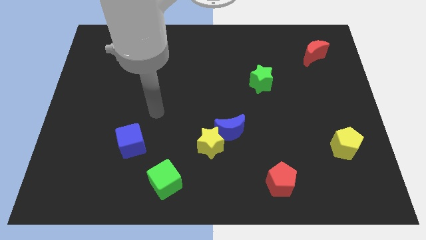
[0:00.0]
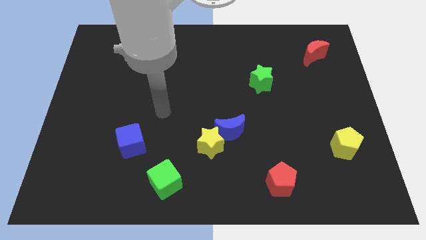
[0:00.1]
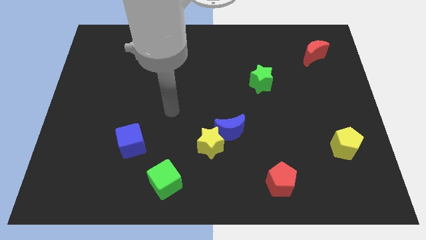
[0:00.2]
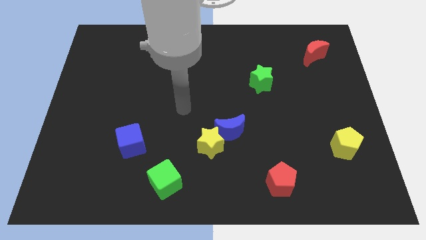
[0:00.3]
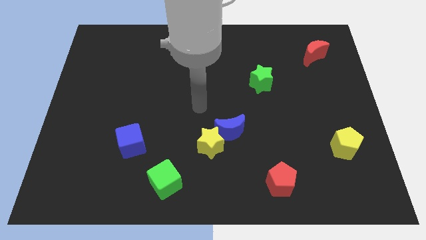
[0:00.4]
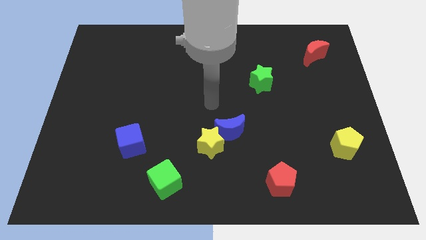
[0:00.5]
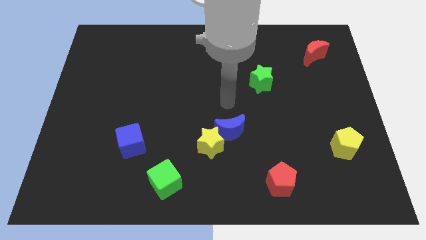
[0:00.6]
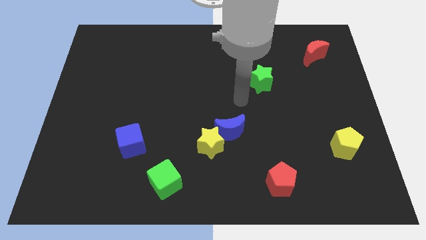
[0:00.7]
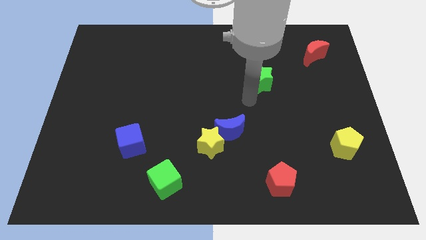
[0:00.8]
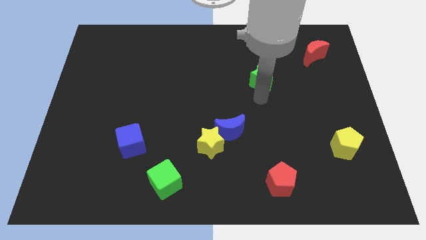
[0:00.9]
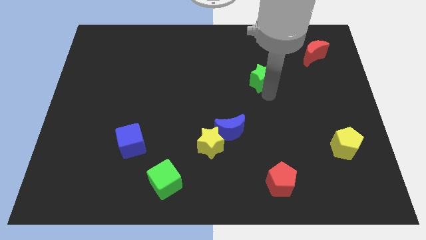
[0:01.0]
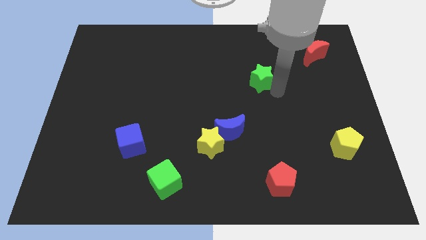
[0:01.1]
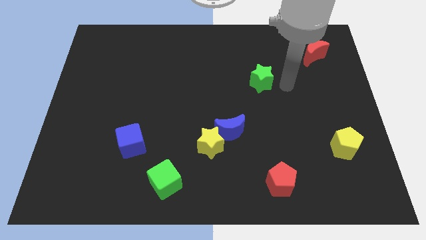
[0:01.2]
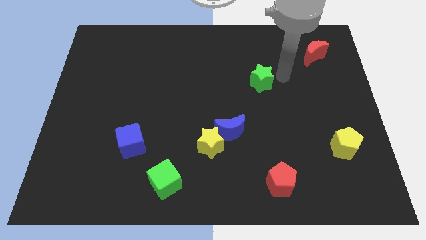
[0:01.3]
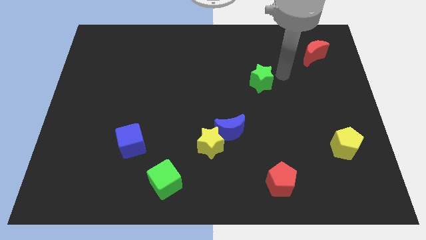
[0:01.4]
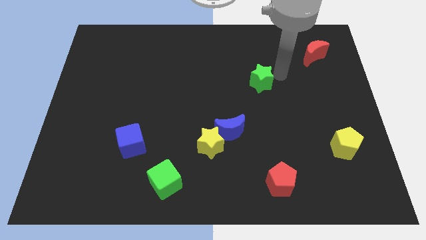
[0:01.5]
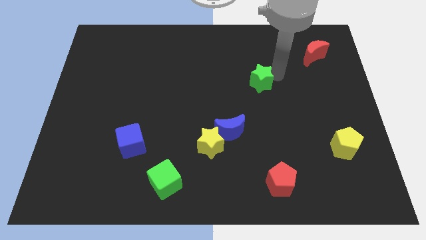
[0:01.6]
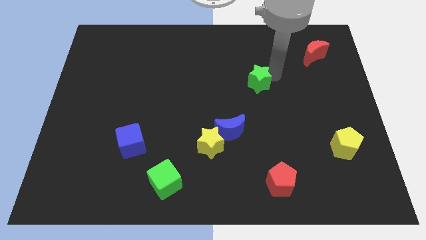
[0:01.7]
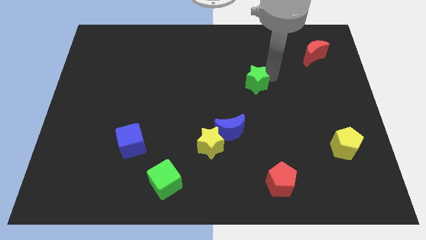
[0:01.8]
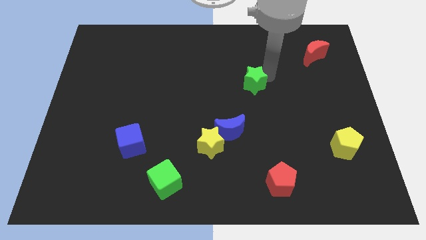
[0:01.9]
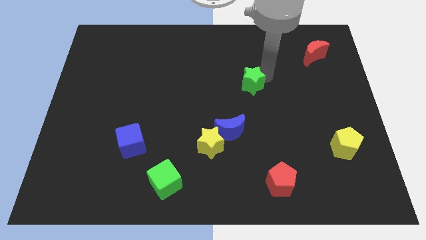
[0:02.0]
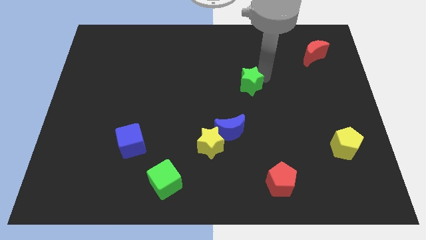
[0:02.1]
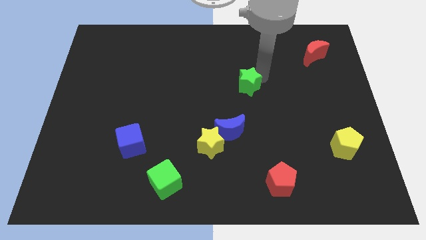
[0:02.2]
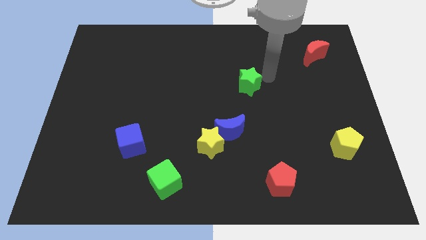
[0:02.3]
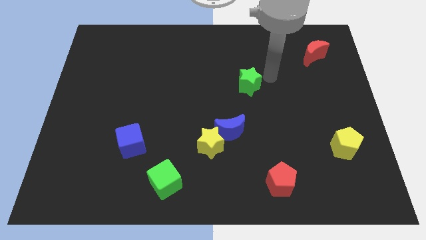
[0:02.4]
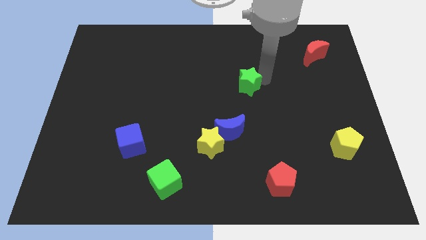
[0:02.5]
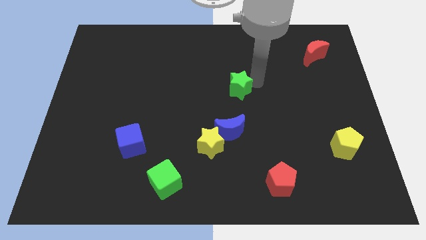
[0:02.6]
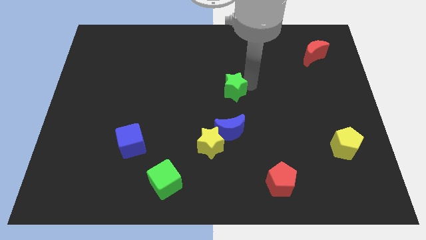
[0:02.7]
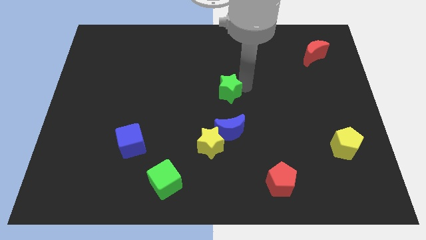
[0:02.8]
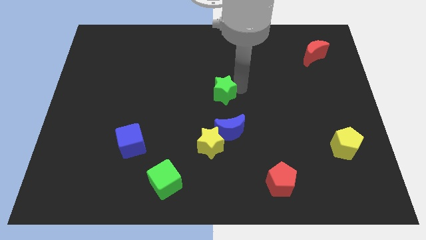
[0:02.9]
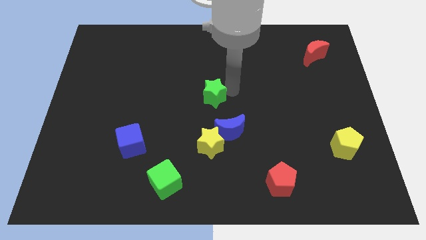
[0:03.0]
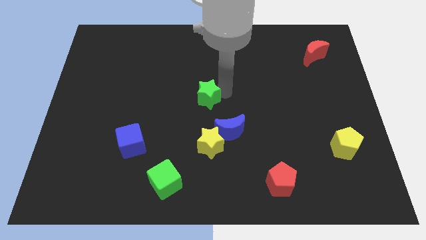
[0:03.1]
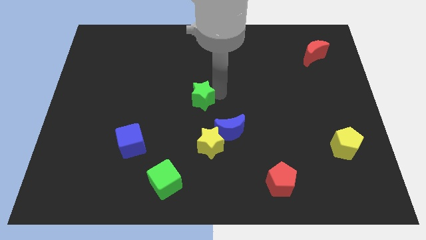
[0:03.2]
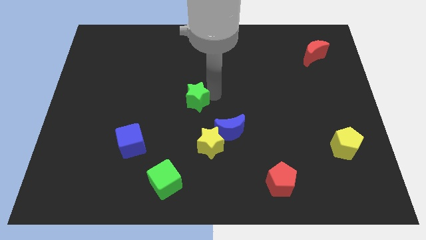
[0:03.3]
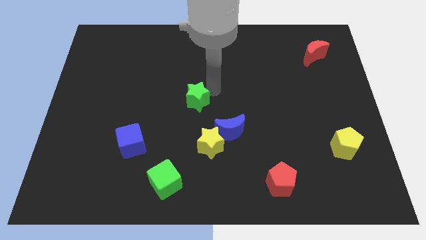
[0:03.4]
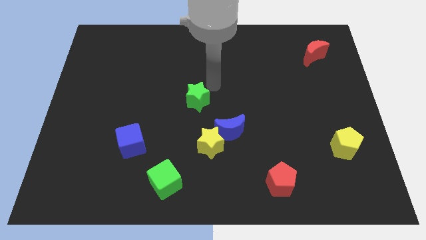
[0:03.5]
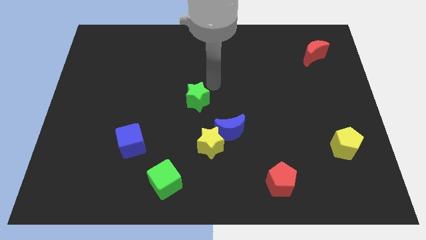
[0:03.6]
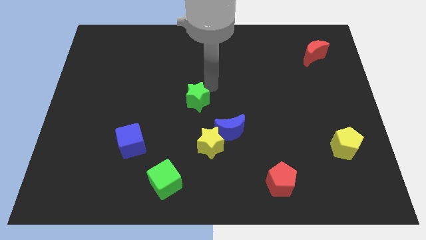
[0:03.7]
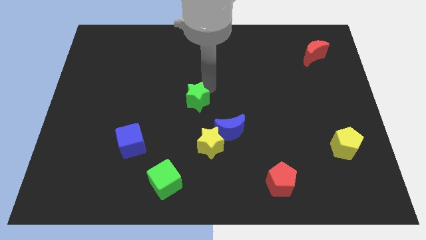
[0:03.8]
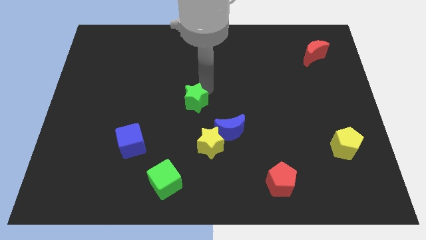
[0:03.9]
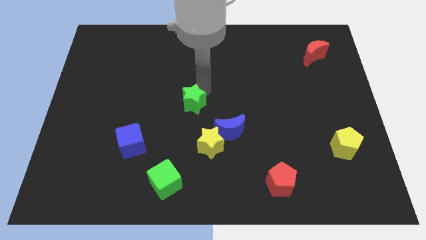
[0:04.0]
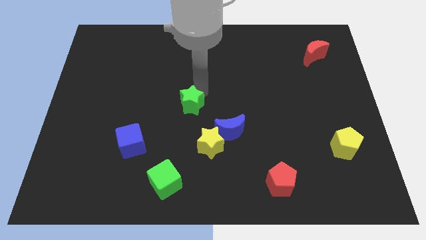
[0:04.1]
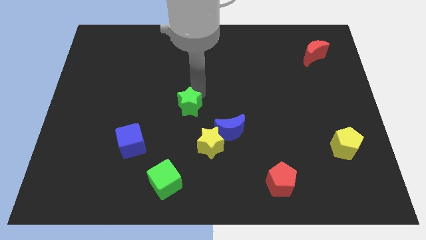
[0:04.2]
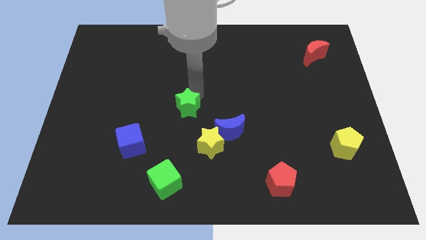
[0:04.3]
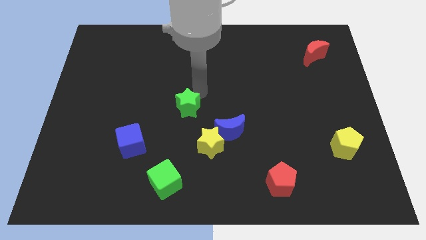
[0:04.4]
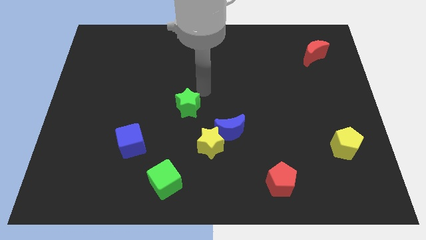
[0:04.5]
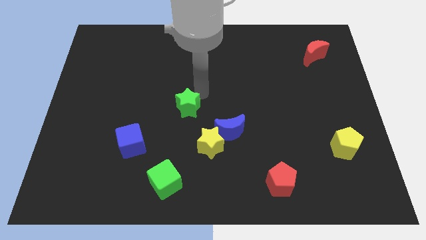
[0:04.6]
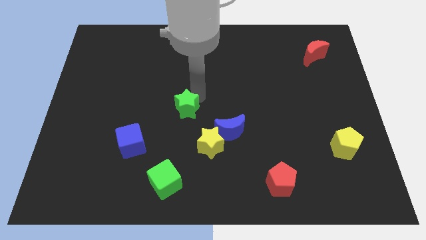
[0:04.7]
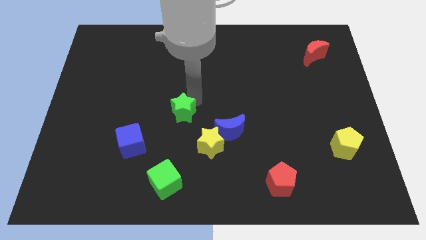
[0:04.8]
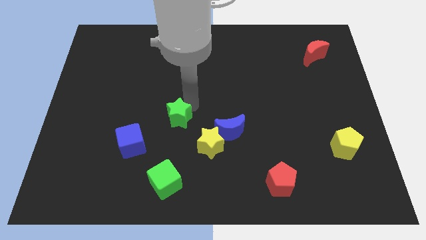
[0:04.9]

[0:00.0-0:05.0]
slide the green star to the top right of the blue cube

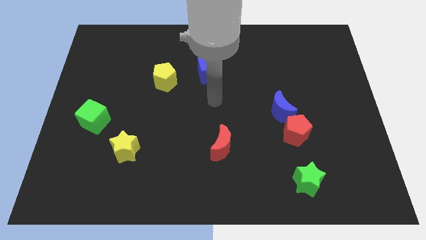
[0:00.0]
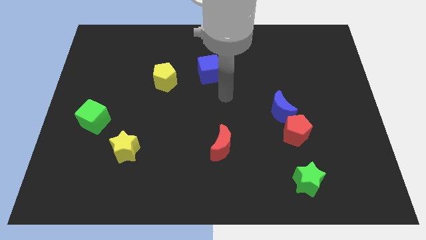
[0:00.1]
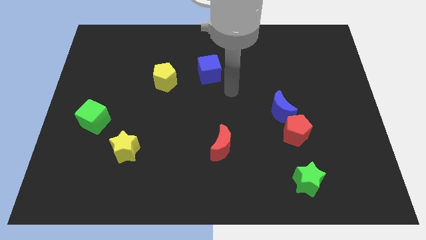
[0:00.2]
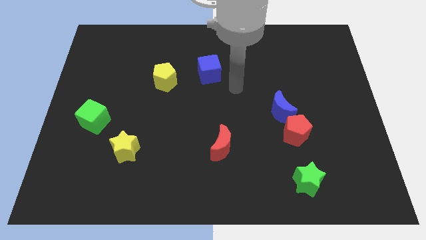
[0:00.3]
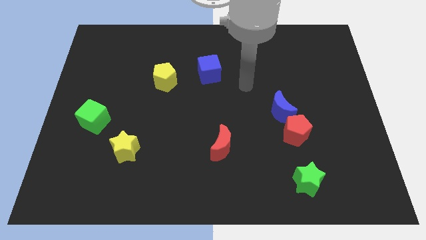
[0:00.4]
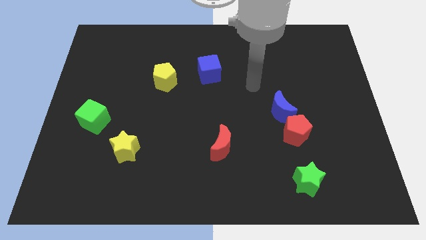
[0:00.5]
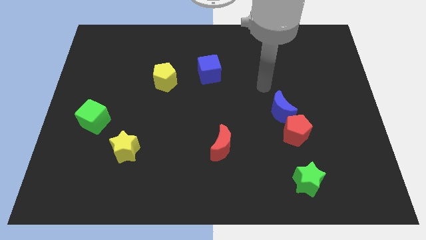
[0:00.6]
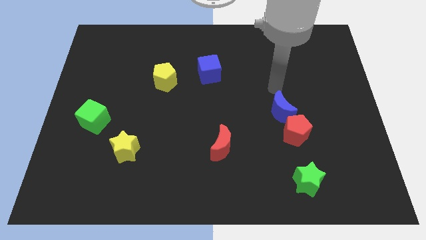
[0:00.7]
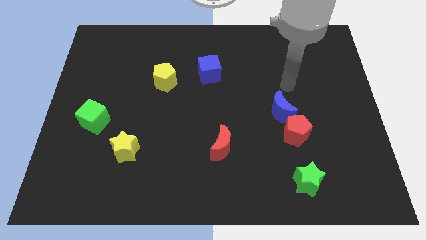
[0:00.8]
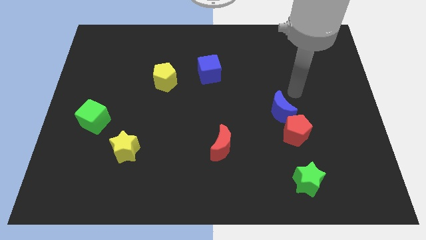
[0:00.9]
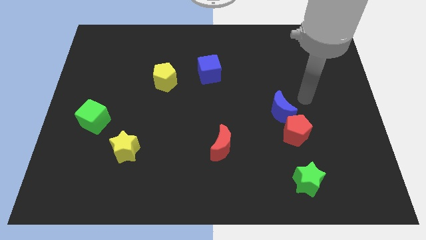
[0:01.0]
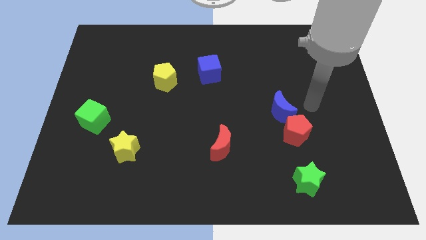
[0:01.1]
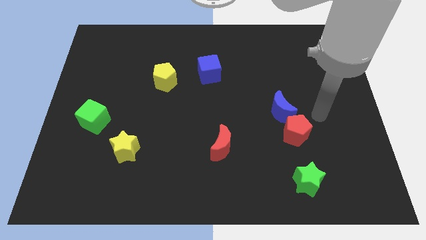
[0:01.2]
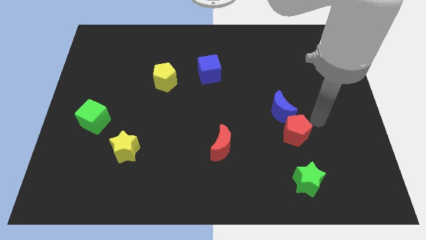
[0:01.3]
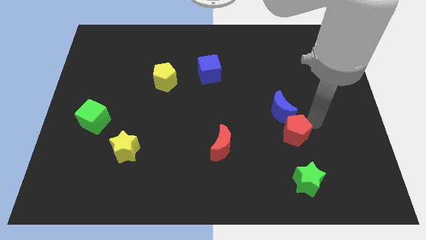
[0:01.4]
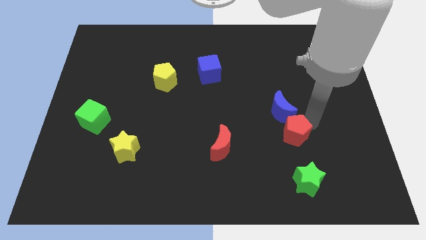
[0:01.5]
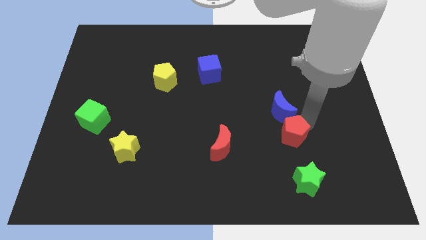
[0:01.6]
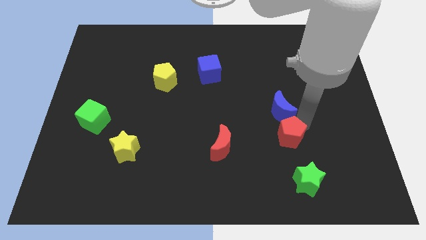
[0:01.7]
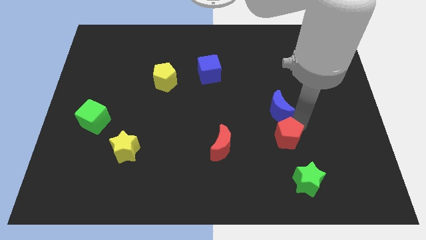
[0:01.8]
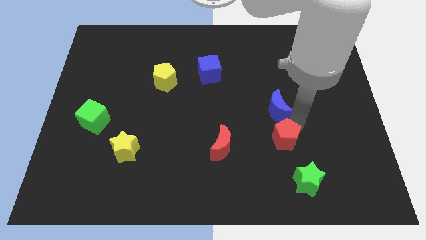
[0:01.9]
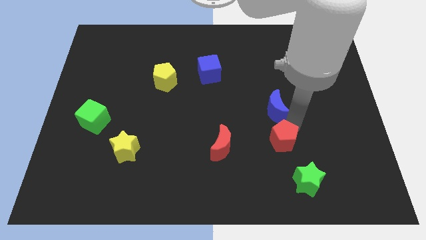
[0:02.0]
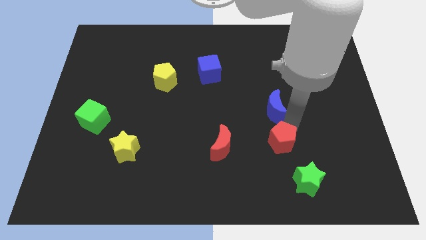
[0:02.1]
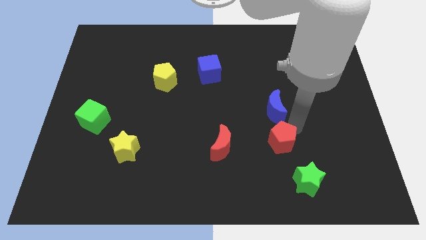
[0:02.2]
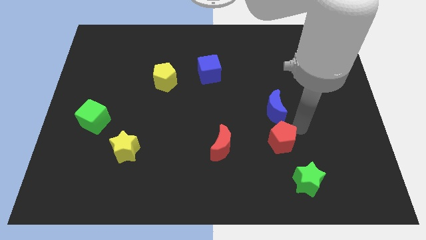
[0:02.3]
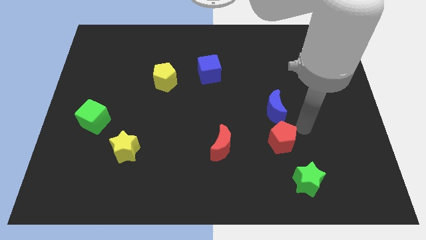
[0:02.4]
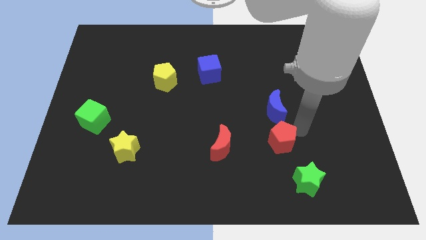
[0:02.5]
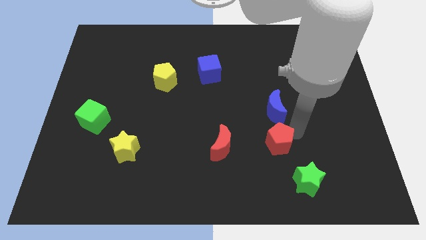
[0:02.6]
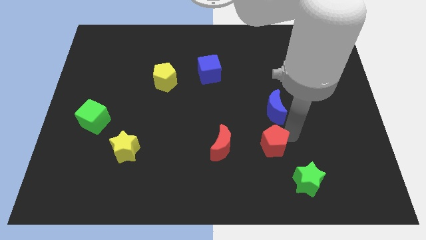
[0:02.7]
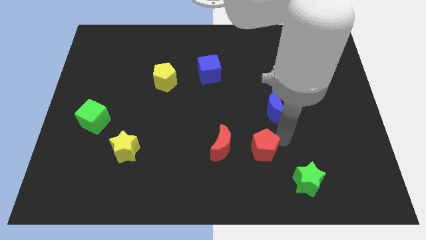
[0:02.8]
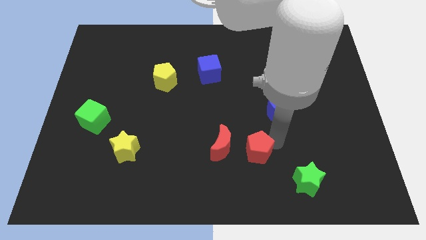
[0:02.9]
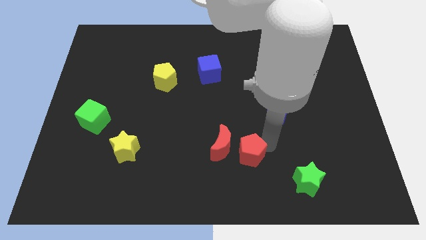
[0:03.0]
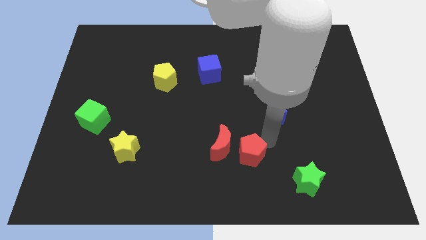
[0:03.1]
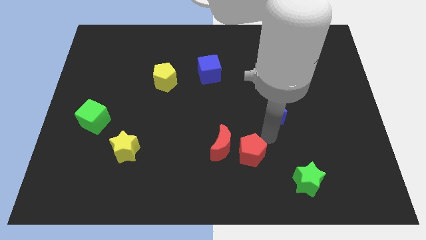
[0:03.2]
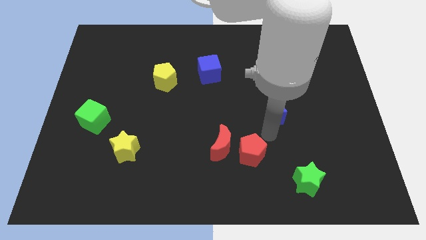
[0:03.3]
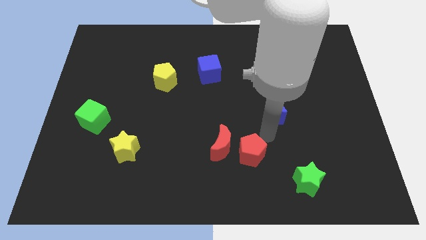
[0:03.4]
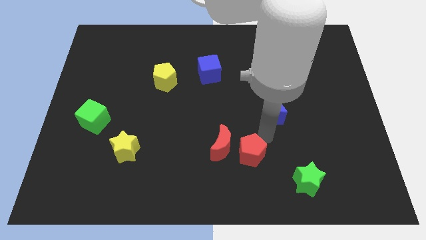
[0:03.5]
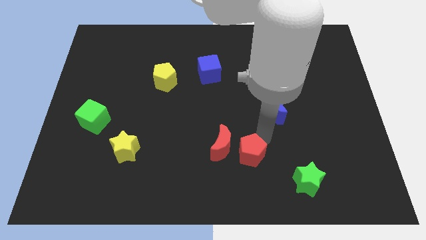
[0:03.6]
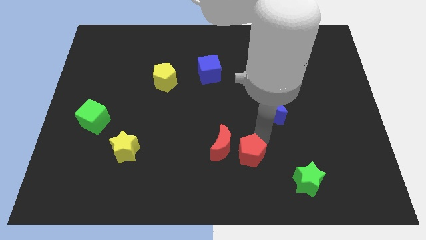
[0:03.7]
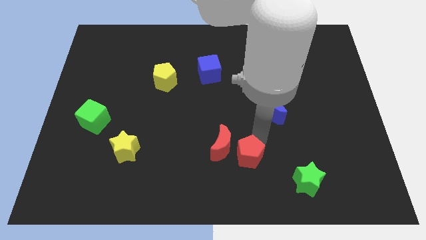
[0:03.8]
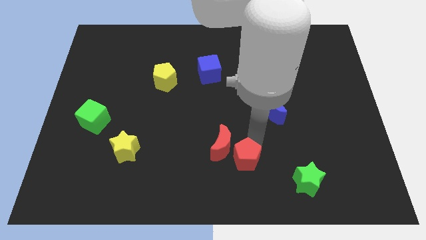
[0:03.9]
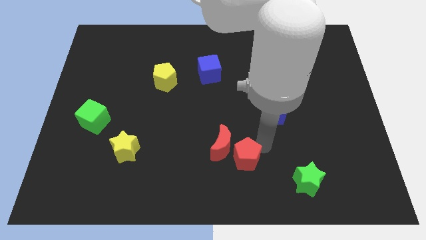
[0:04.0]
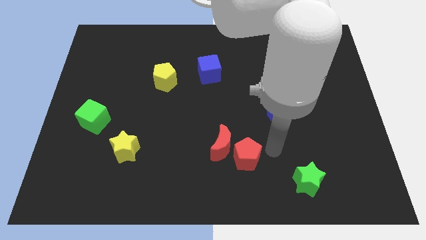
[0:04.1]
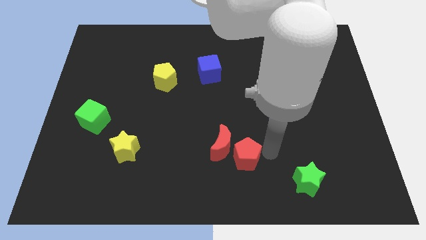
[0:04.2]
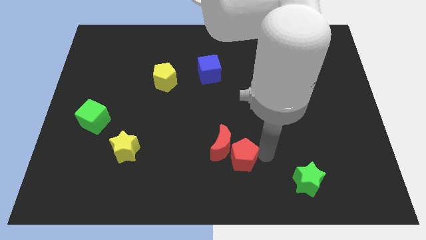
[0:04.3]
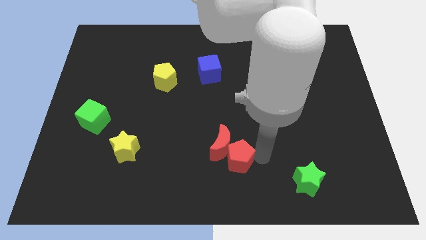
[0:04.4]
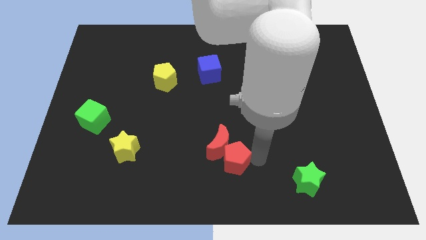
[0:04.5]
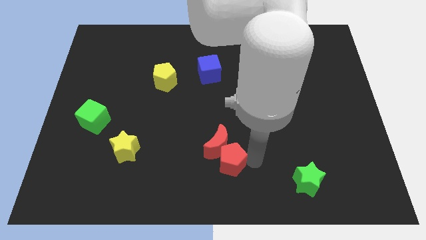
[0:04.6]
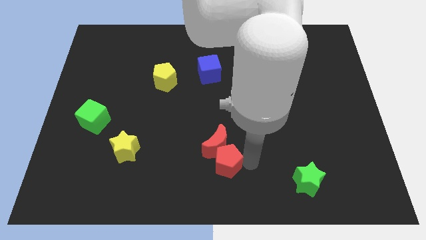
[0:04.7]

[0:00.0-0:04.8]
slide the red pentagon to the bottom left of the red moon
